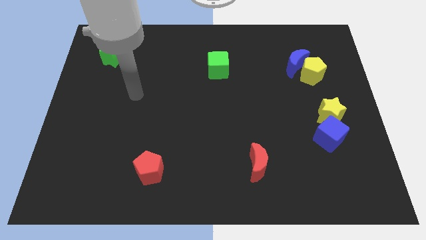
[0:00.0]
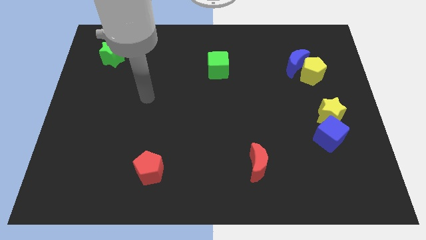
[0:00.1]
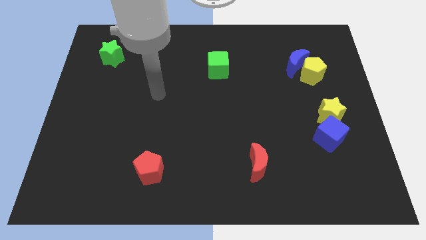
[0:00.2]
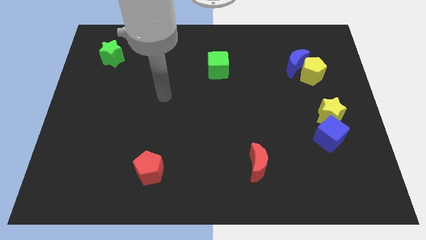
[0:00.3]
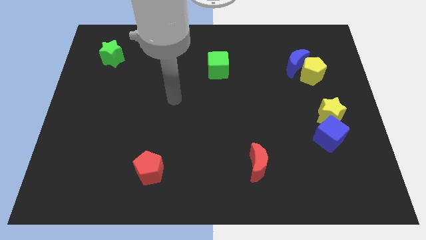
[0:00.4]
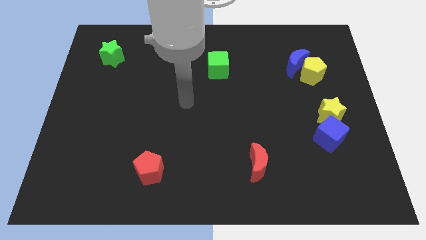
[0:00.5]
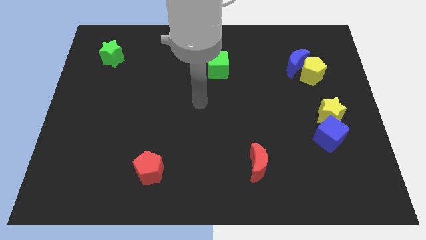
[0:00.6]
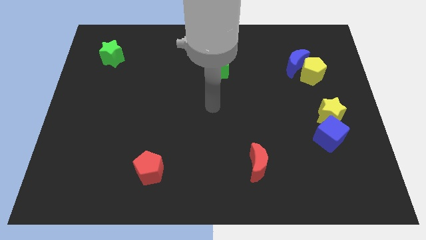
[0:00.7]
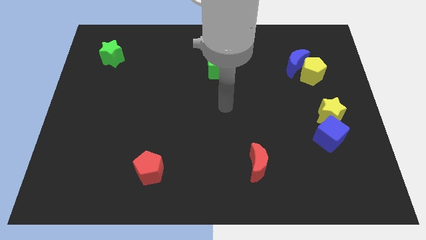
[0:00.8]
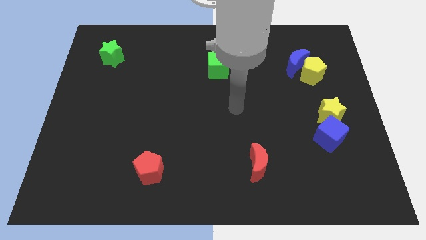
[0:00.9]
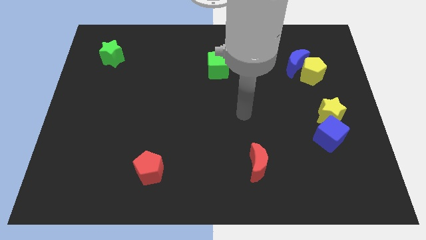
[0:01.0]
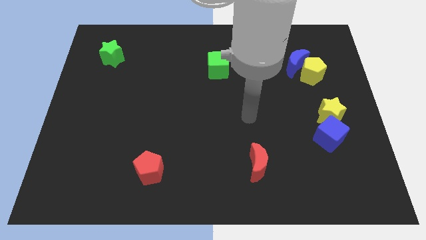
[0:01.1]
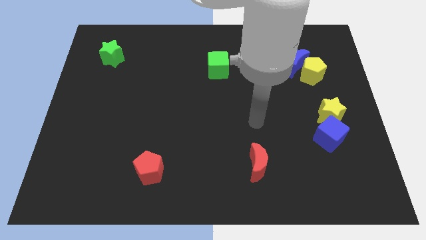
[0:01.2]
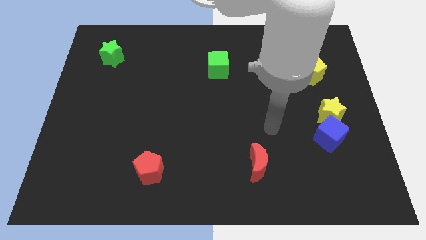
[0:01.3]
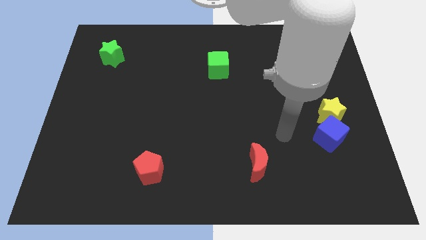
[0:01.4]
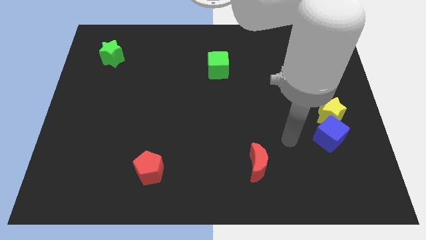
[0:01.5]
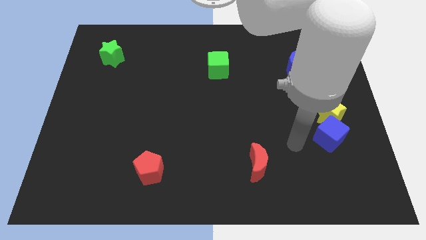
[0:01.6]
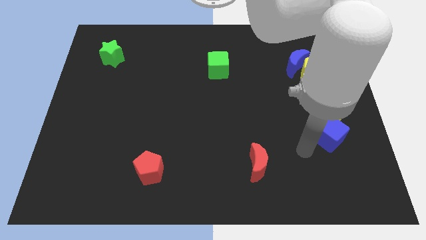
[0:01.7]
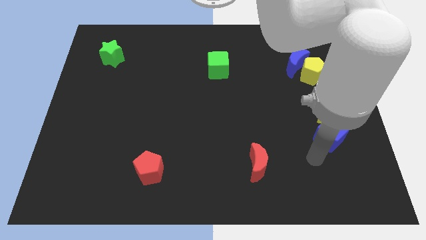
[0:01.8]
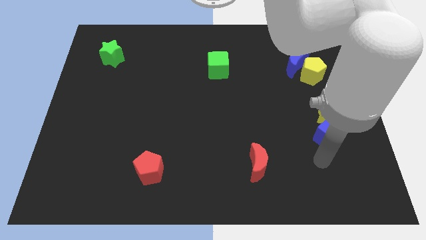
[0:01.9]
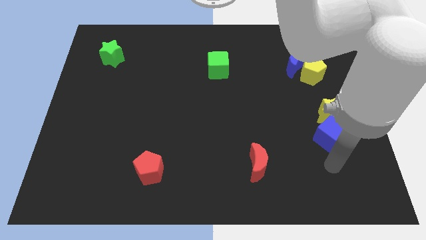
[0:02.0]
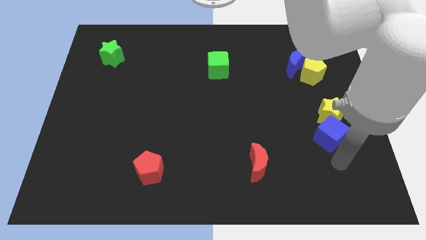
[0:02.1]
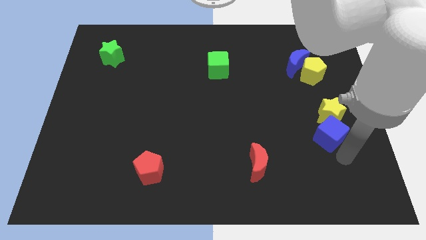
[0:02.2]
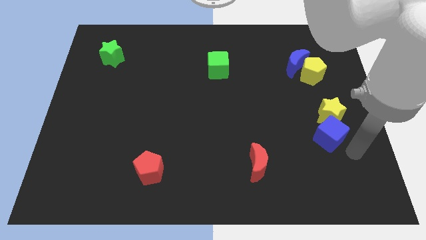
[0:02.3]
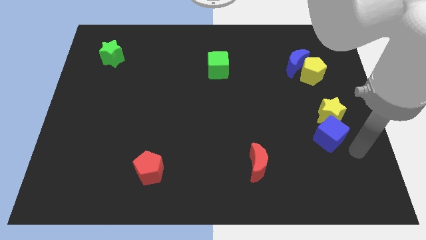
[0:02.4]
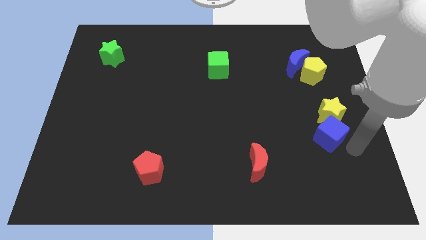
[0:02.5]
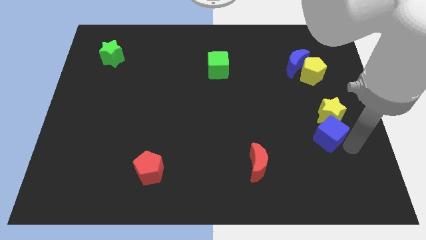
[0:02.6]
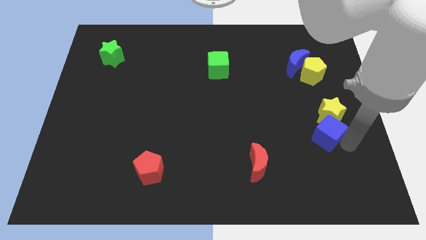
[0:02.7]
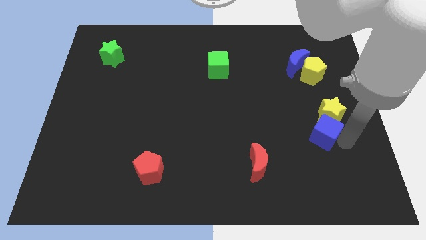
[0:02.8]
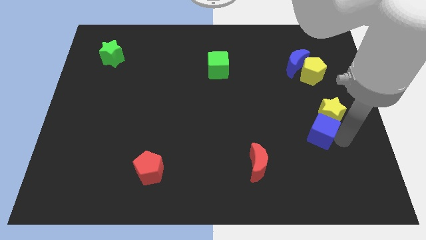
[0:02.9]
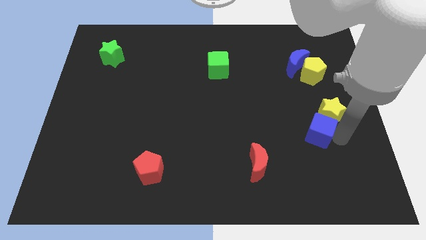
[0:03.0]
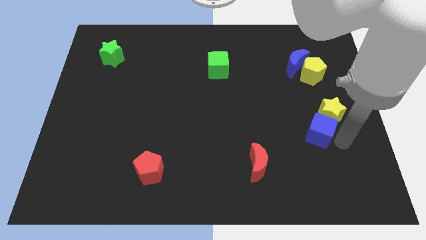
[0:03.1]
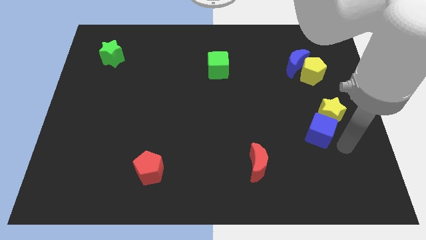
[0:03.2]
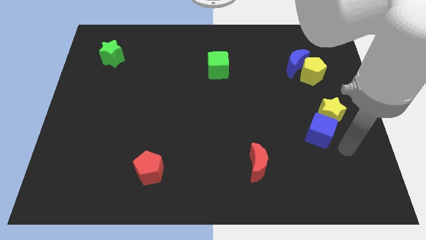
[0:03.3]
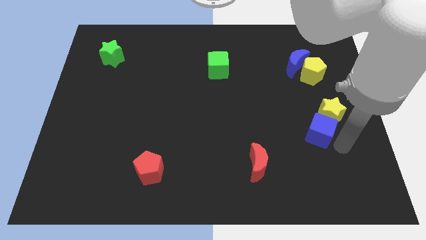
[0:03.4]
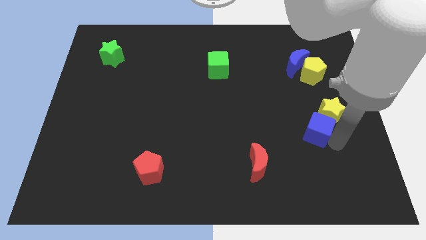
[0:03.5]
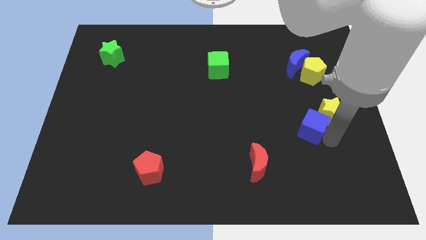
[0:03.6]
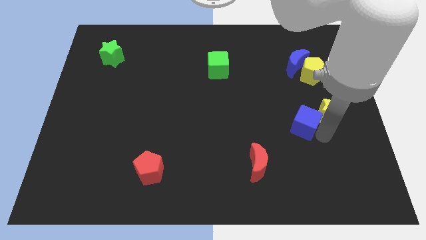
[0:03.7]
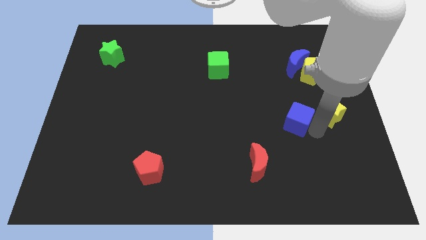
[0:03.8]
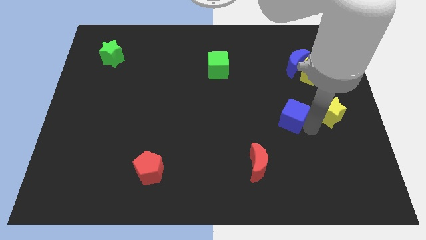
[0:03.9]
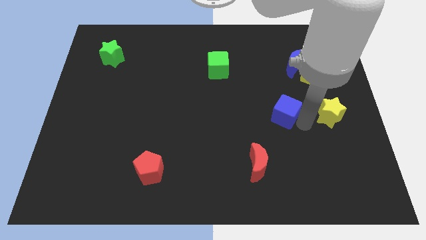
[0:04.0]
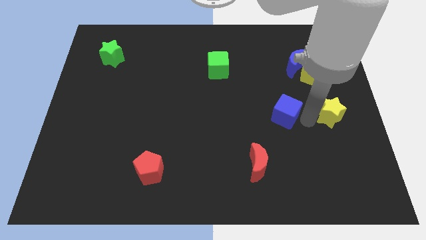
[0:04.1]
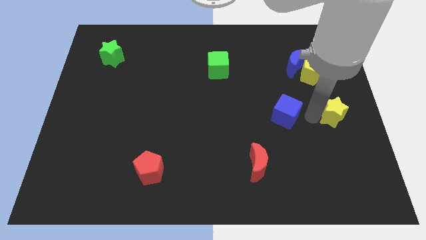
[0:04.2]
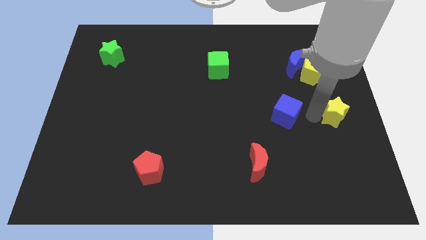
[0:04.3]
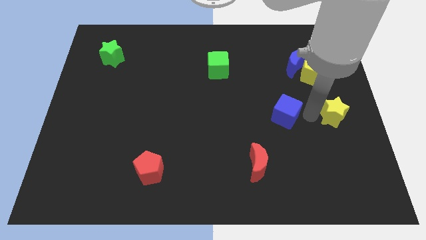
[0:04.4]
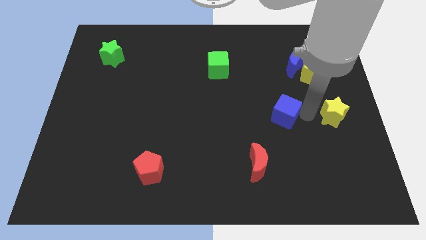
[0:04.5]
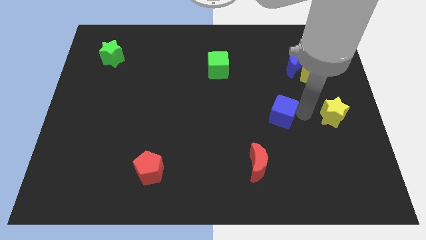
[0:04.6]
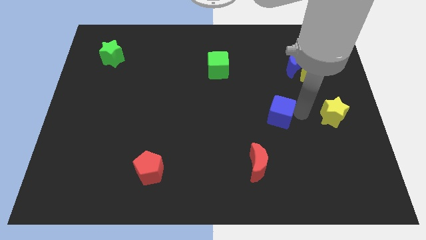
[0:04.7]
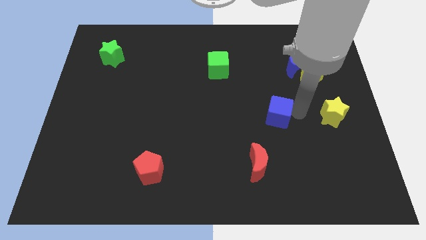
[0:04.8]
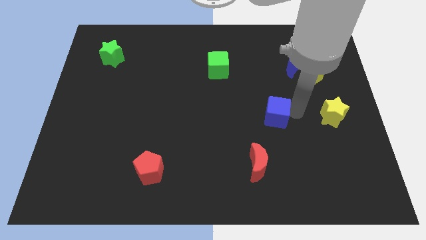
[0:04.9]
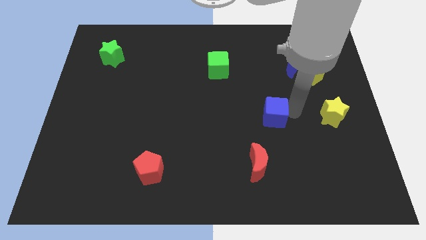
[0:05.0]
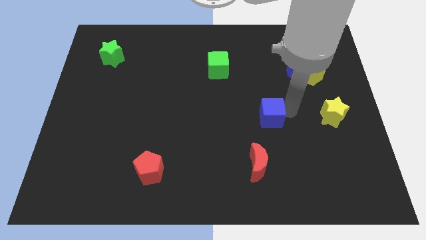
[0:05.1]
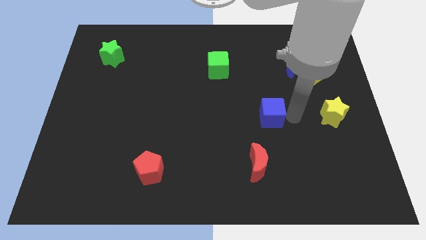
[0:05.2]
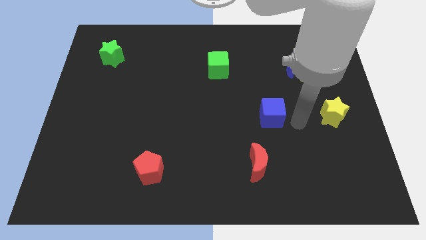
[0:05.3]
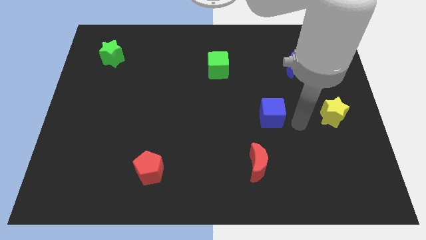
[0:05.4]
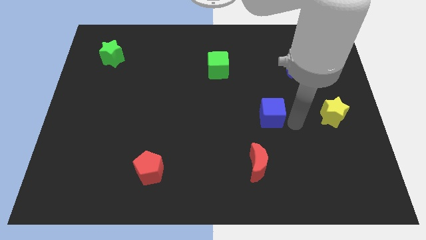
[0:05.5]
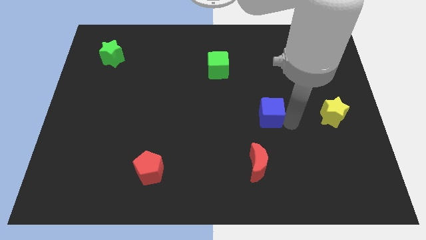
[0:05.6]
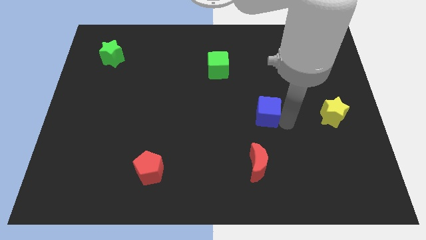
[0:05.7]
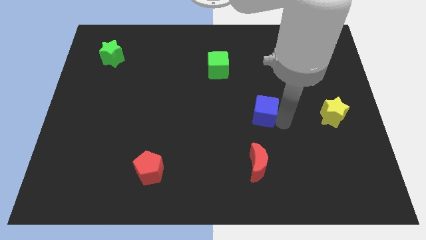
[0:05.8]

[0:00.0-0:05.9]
slide the blue cube to the center of the board

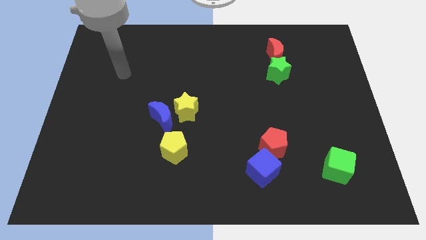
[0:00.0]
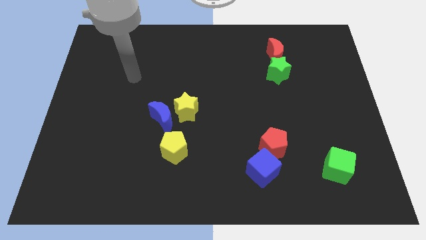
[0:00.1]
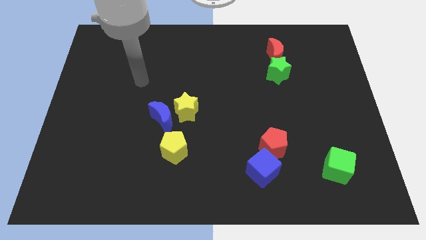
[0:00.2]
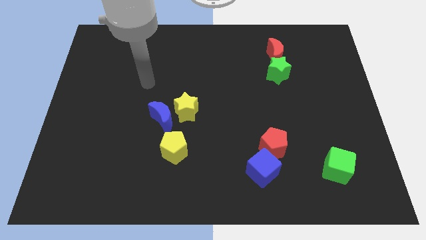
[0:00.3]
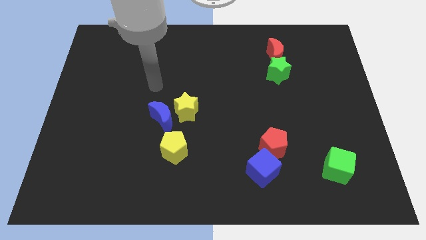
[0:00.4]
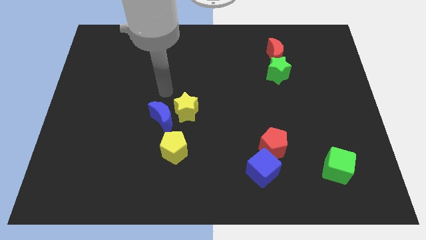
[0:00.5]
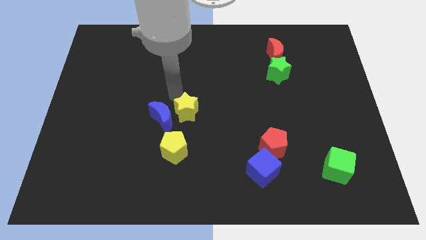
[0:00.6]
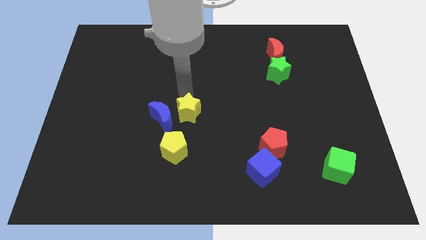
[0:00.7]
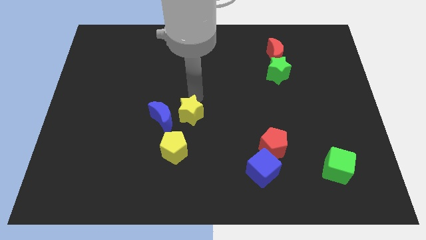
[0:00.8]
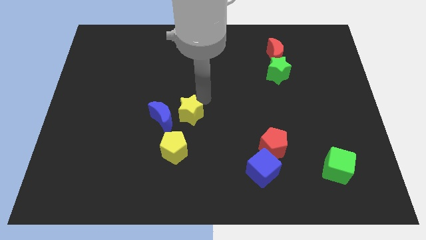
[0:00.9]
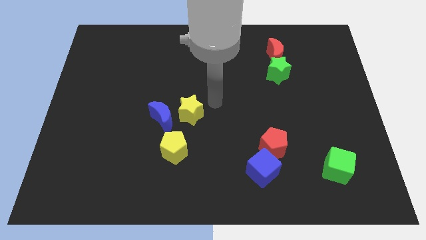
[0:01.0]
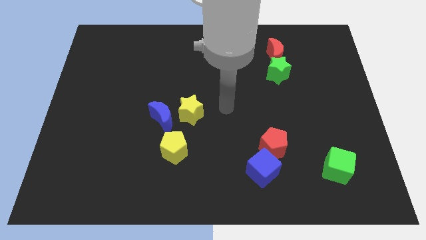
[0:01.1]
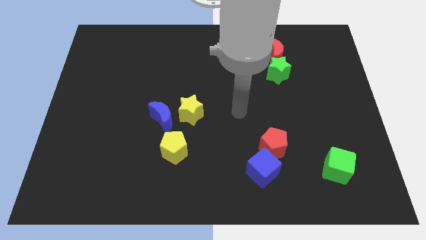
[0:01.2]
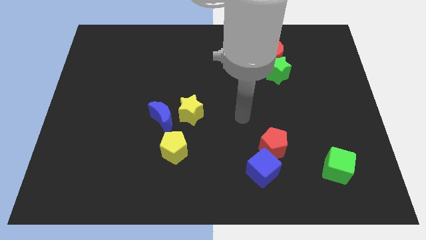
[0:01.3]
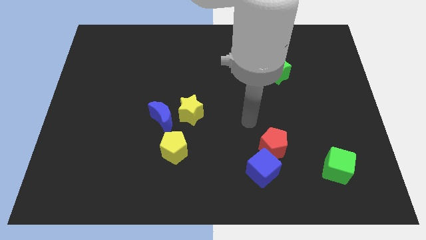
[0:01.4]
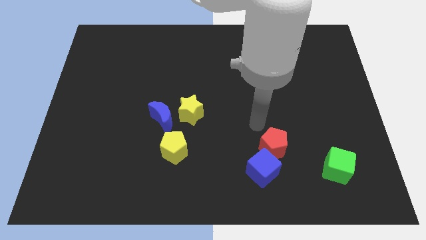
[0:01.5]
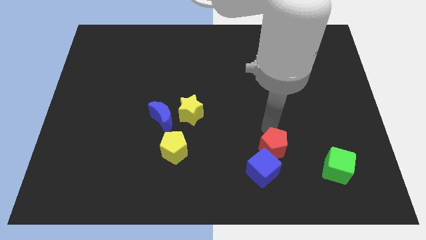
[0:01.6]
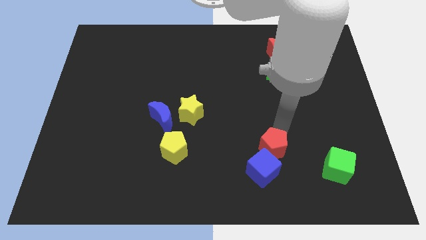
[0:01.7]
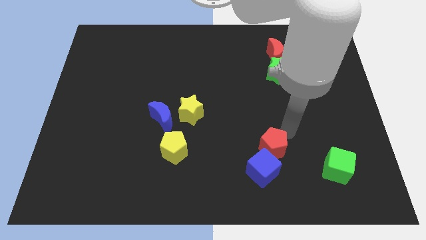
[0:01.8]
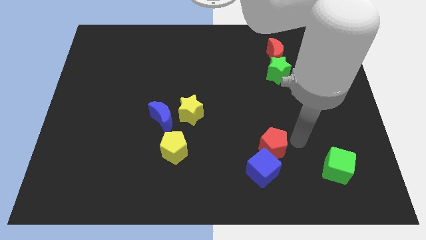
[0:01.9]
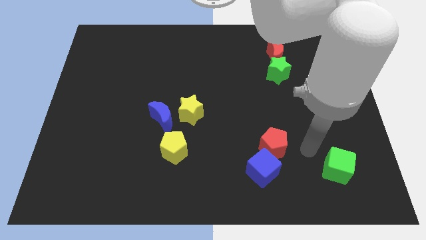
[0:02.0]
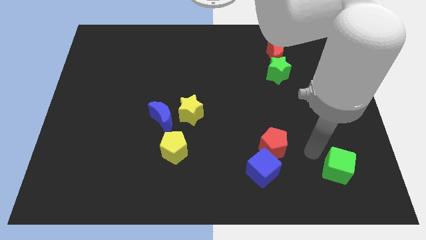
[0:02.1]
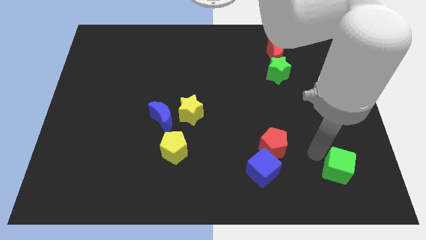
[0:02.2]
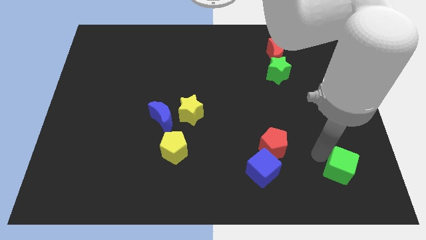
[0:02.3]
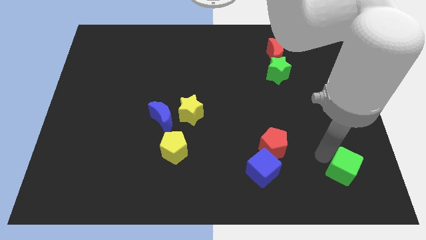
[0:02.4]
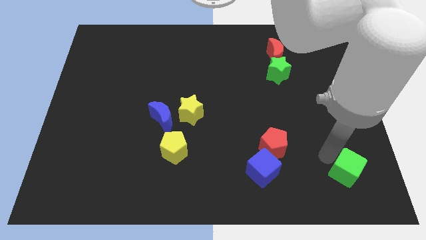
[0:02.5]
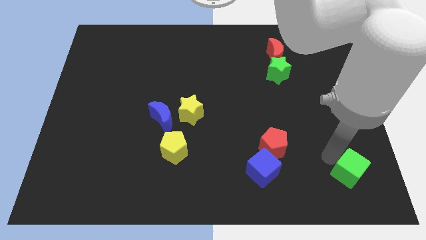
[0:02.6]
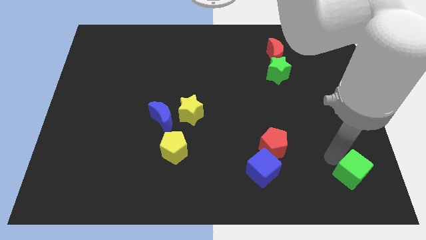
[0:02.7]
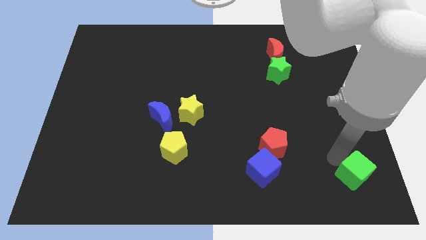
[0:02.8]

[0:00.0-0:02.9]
move the green cube to the bottom right corner
